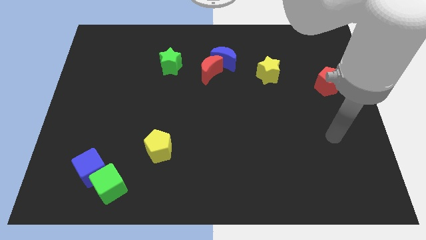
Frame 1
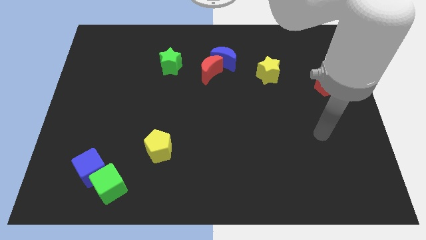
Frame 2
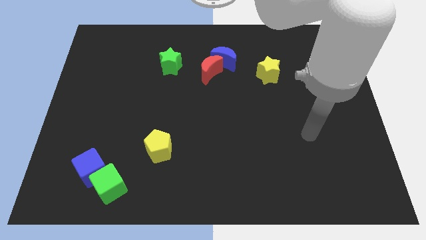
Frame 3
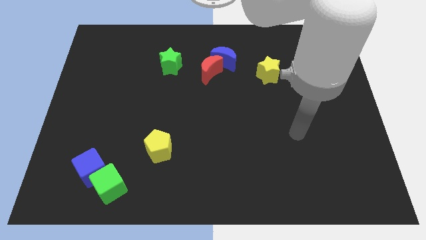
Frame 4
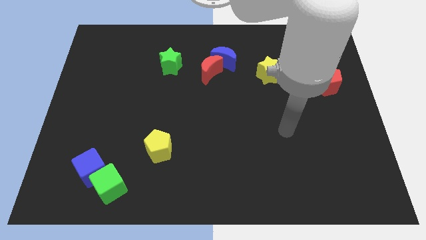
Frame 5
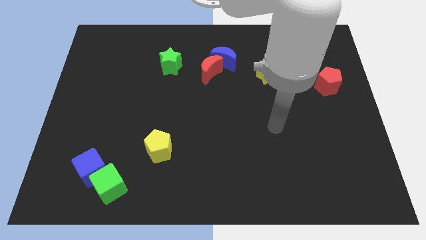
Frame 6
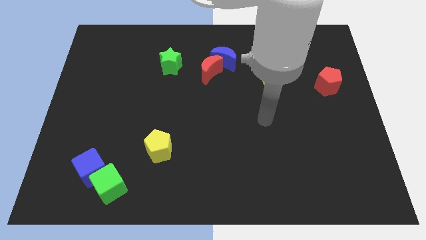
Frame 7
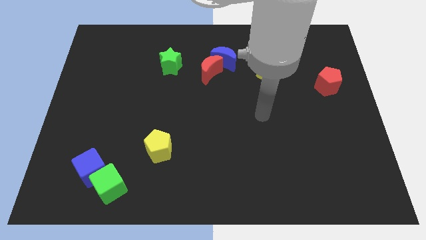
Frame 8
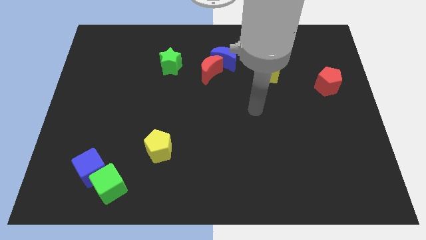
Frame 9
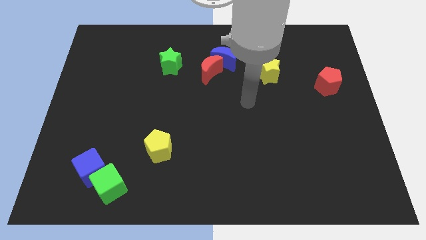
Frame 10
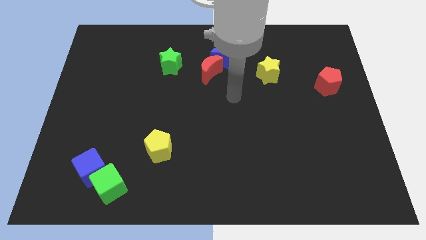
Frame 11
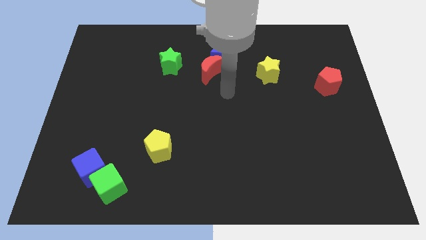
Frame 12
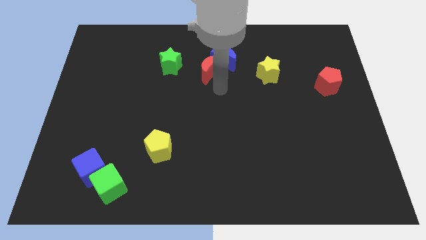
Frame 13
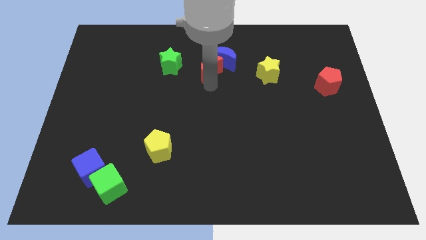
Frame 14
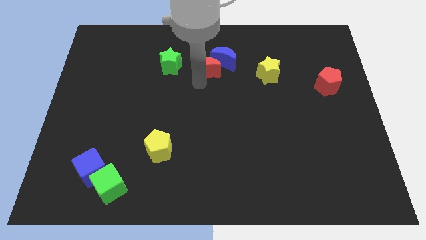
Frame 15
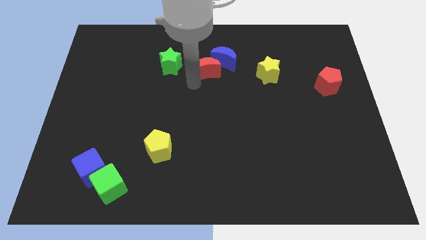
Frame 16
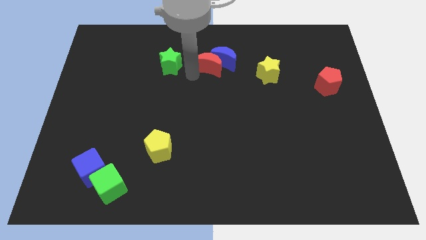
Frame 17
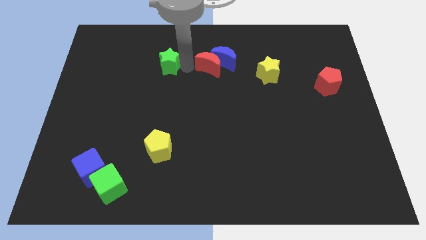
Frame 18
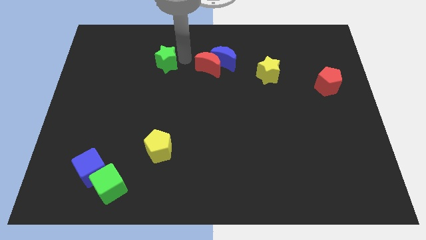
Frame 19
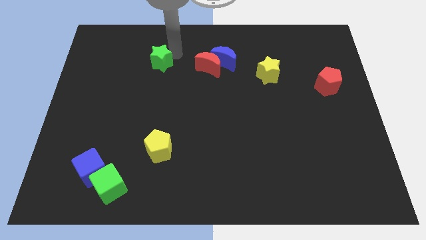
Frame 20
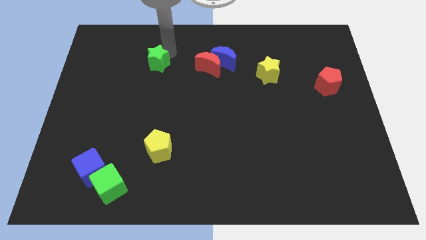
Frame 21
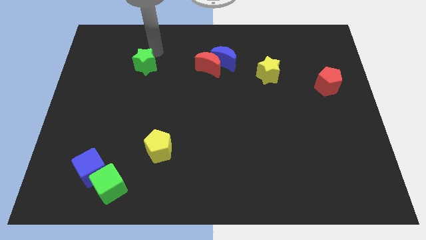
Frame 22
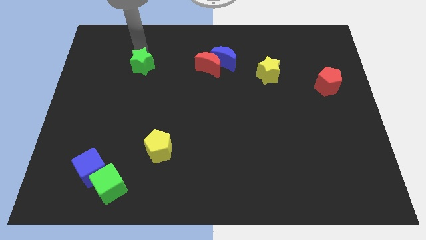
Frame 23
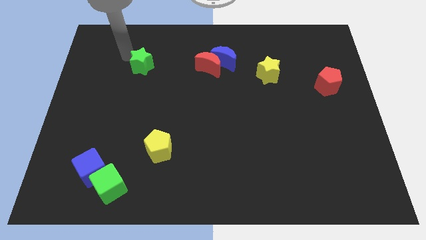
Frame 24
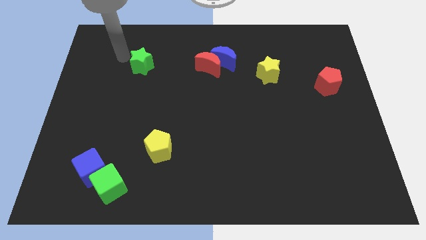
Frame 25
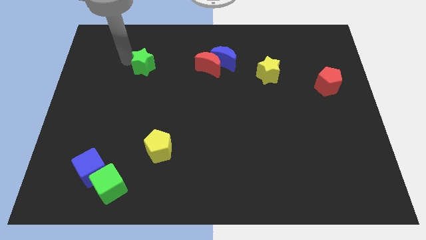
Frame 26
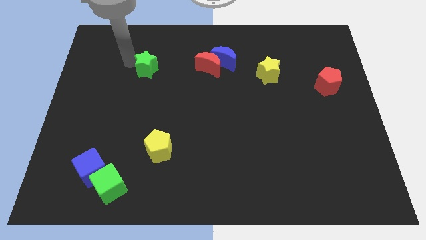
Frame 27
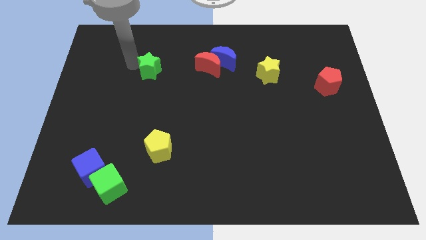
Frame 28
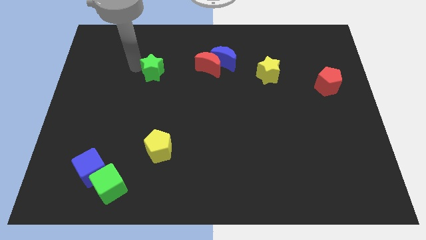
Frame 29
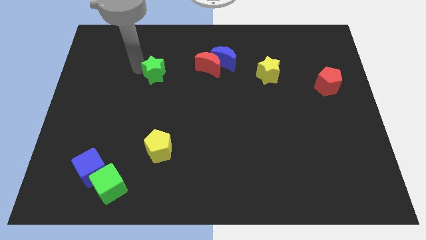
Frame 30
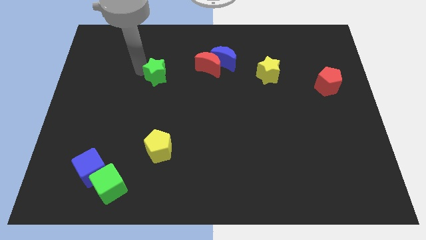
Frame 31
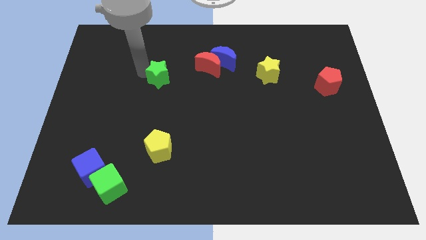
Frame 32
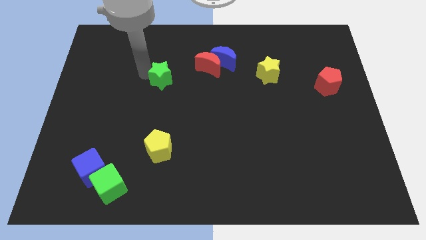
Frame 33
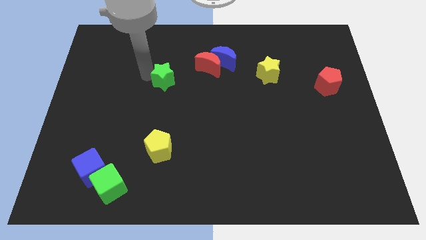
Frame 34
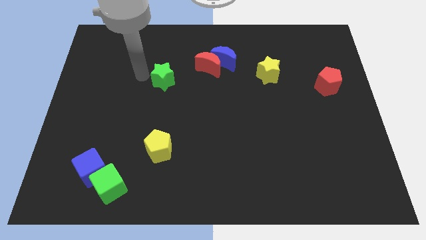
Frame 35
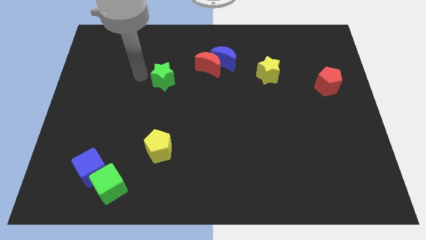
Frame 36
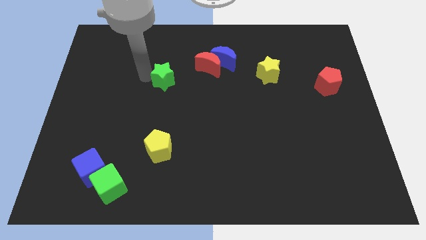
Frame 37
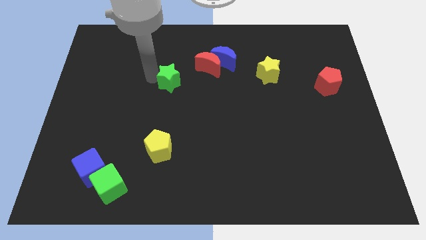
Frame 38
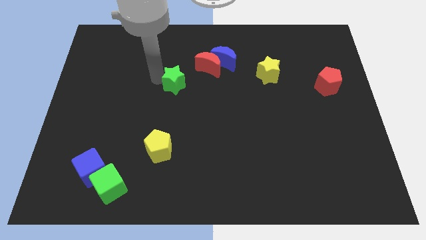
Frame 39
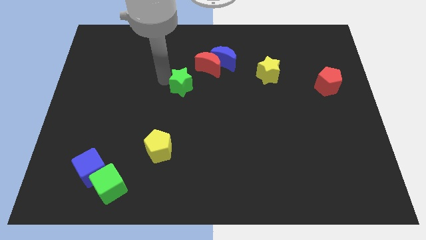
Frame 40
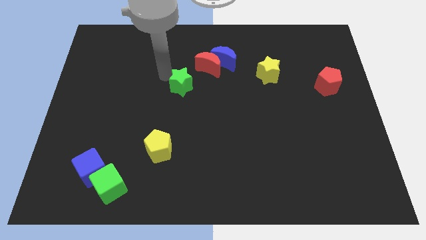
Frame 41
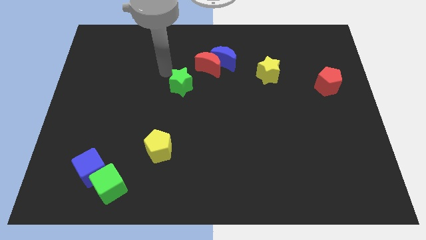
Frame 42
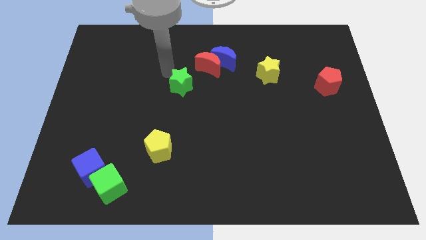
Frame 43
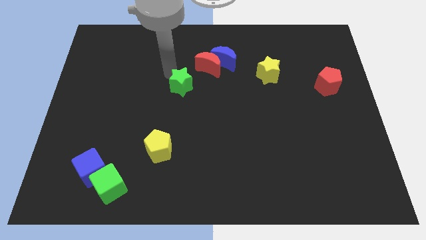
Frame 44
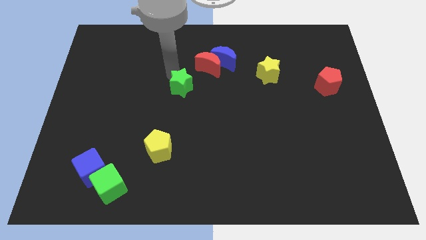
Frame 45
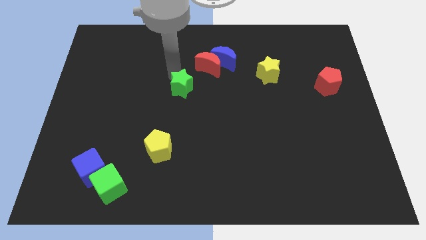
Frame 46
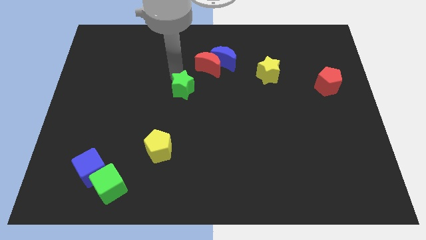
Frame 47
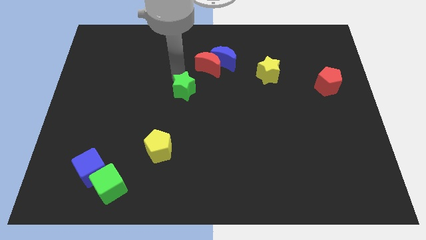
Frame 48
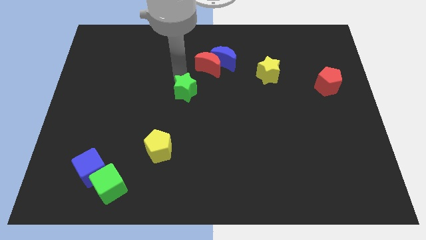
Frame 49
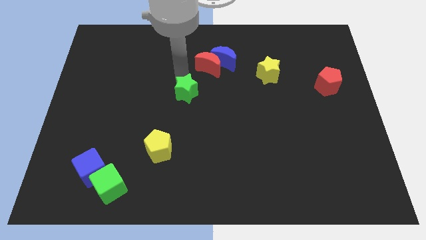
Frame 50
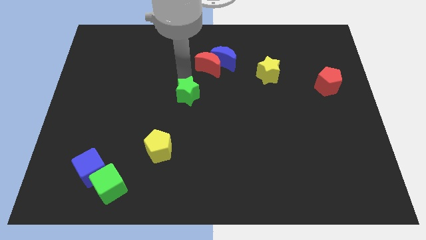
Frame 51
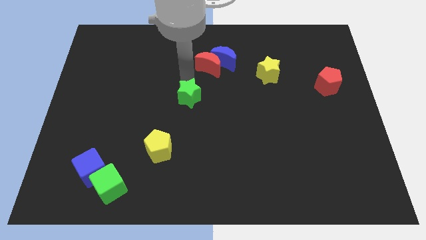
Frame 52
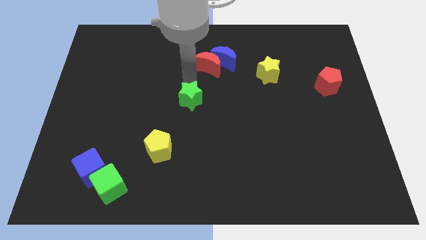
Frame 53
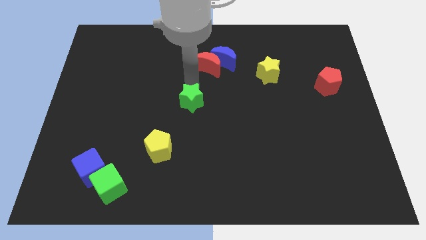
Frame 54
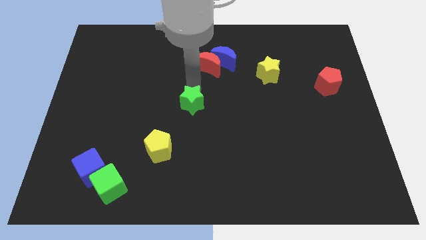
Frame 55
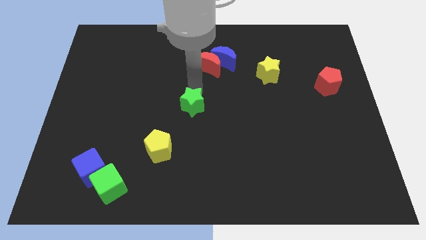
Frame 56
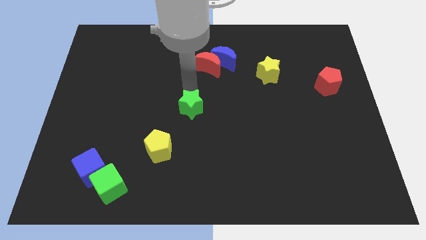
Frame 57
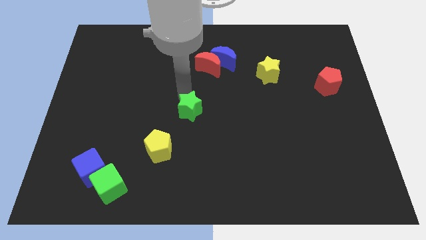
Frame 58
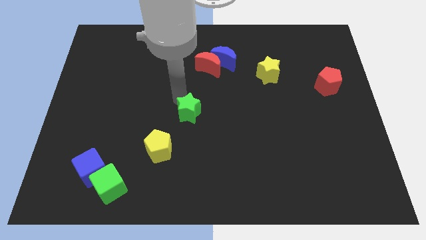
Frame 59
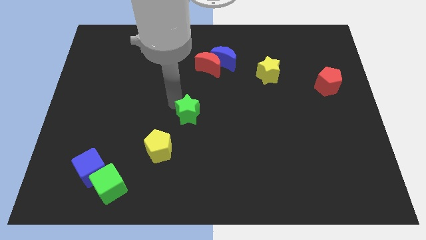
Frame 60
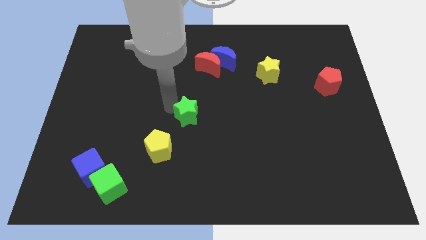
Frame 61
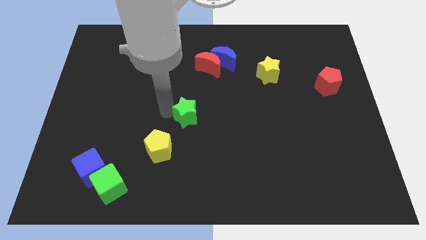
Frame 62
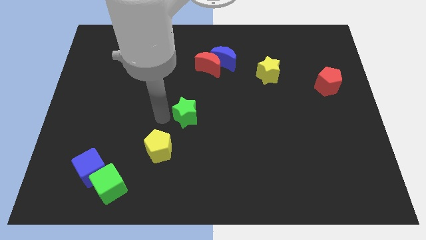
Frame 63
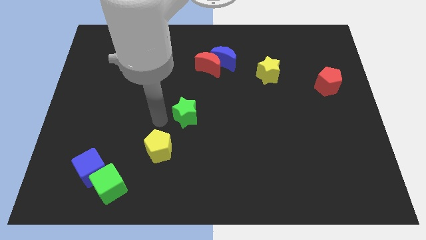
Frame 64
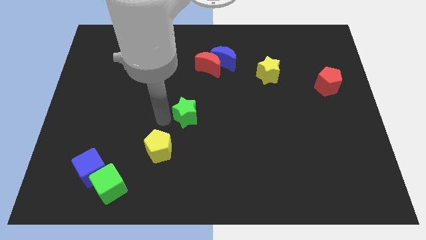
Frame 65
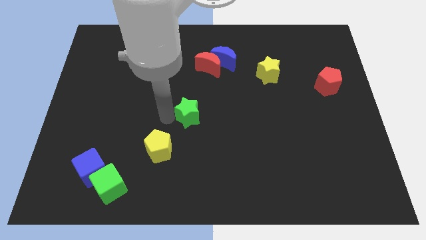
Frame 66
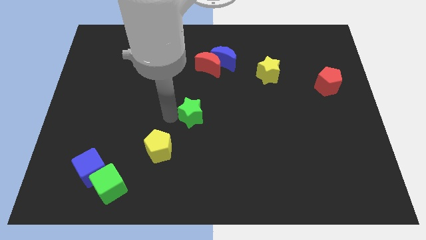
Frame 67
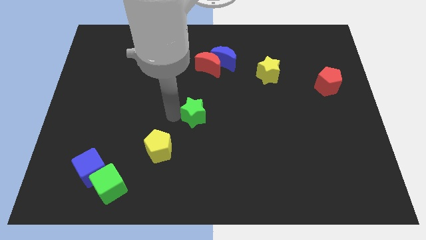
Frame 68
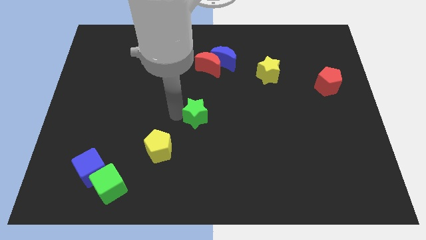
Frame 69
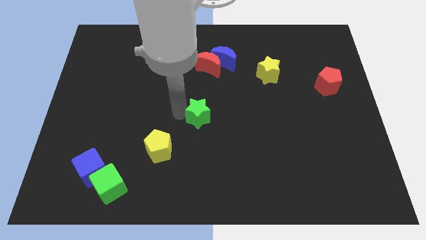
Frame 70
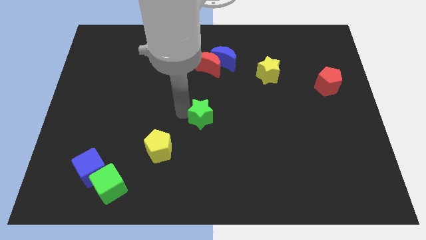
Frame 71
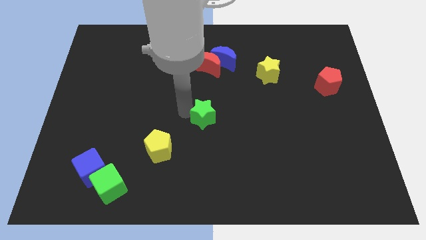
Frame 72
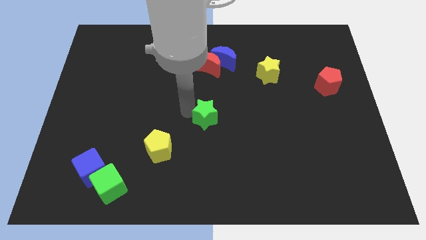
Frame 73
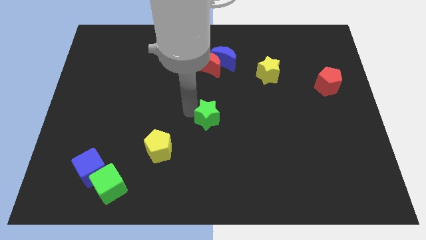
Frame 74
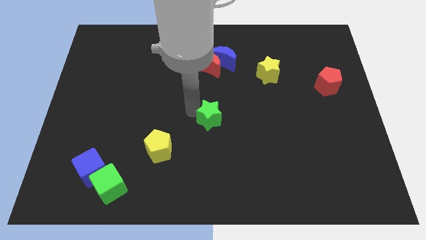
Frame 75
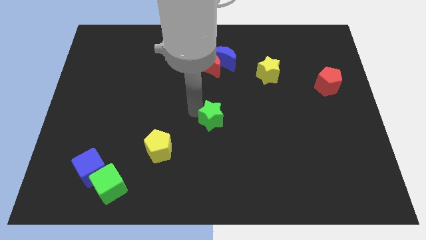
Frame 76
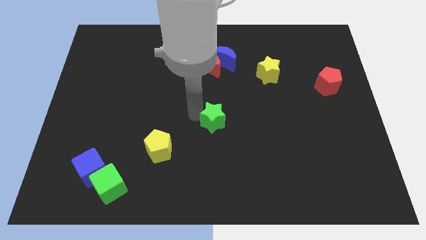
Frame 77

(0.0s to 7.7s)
slide the green star downwards and to the right
